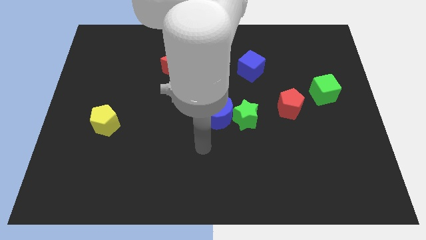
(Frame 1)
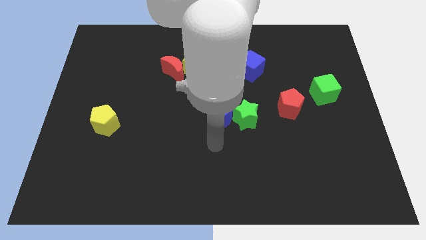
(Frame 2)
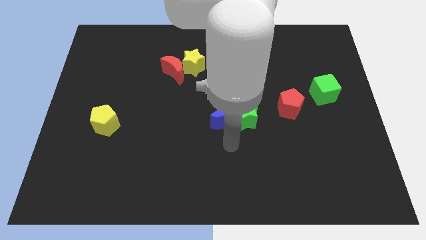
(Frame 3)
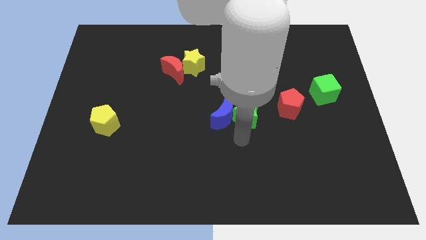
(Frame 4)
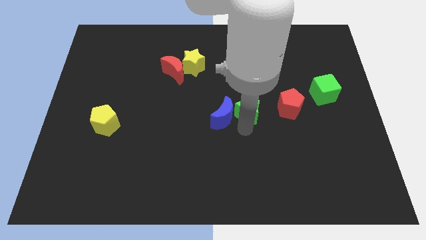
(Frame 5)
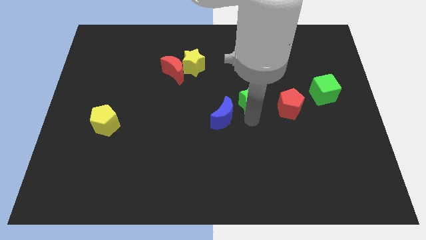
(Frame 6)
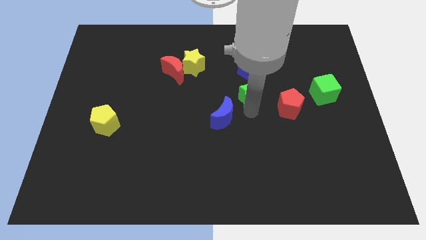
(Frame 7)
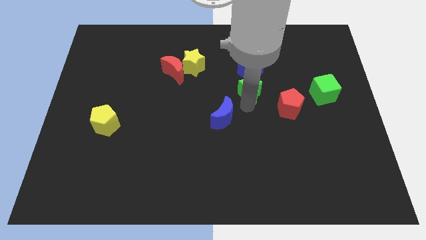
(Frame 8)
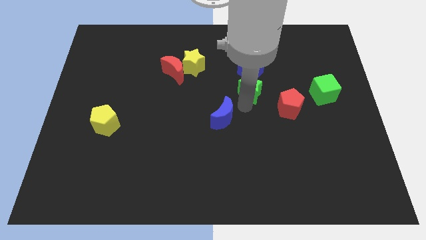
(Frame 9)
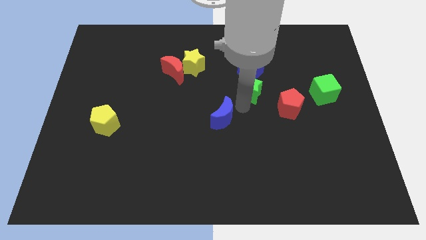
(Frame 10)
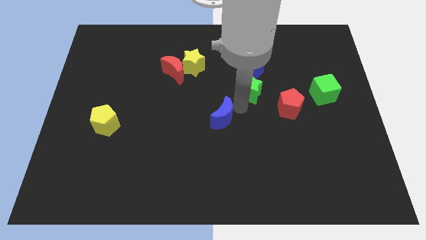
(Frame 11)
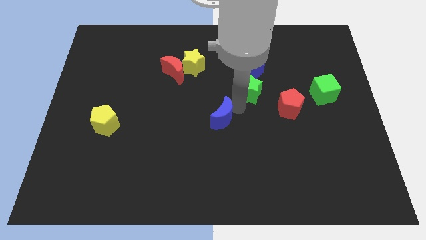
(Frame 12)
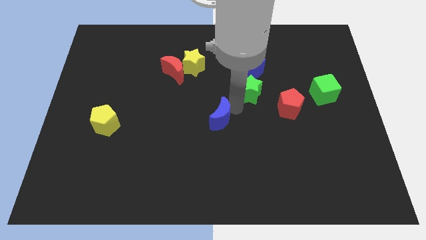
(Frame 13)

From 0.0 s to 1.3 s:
separate the blue moon from the green star

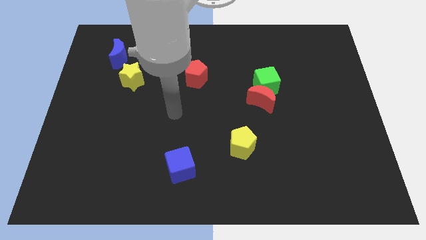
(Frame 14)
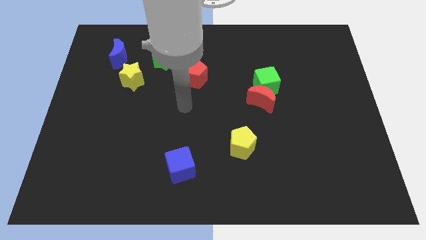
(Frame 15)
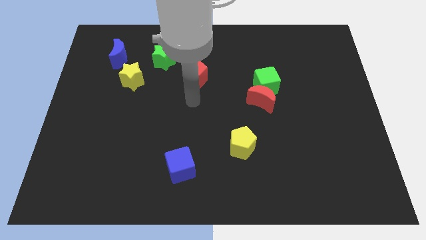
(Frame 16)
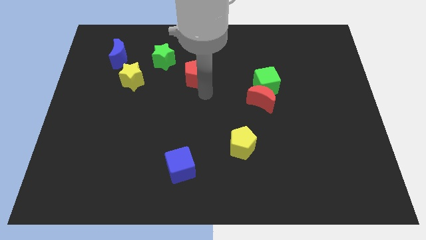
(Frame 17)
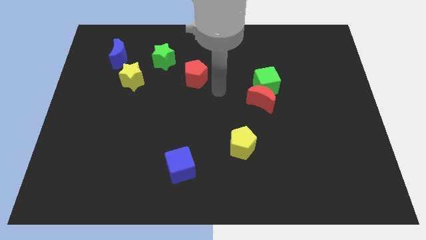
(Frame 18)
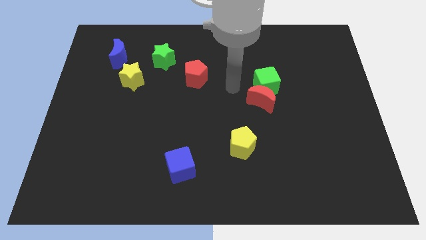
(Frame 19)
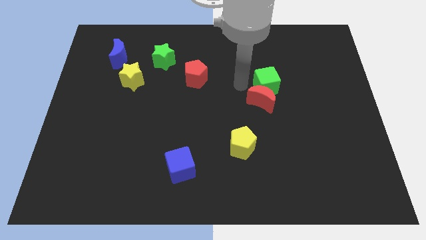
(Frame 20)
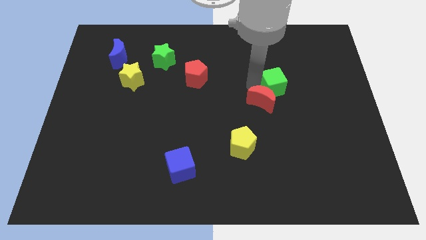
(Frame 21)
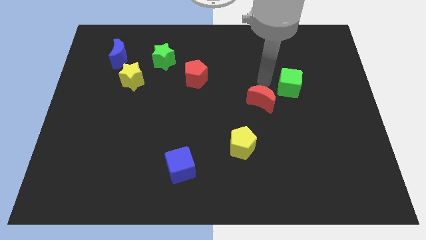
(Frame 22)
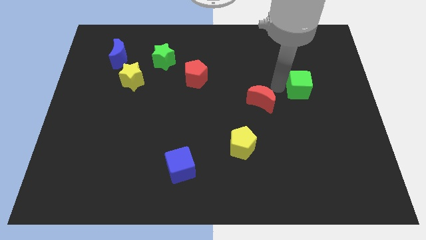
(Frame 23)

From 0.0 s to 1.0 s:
pull the red moon apart from the green cube

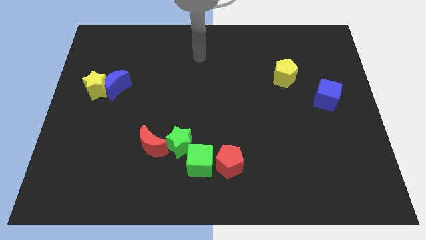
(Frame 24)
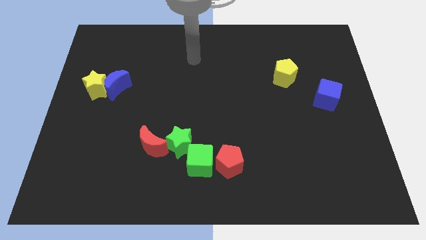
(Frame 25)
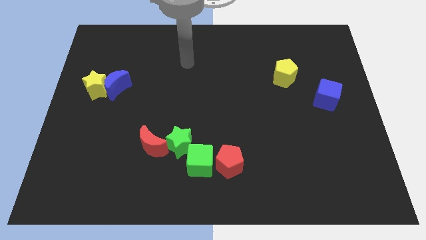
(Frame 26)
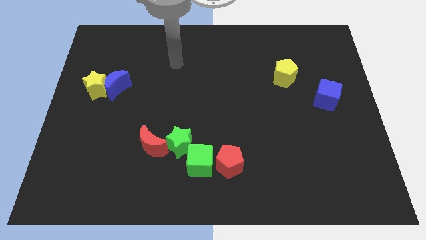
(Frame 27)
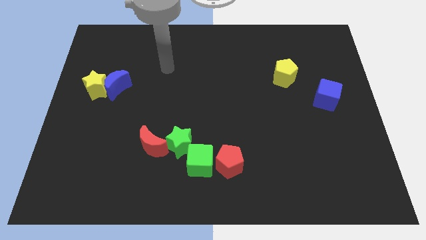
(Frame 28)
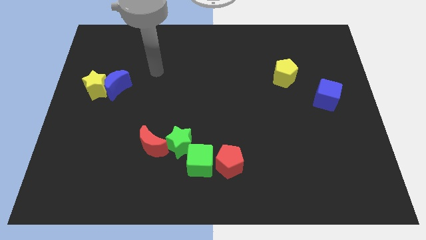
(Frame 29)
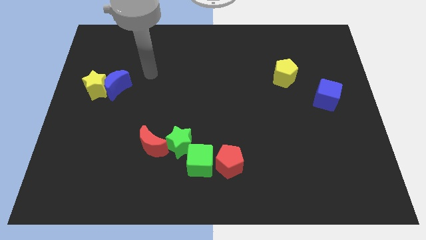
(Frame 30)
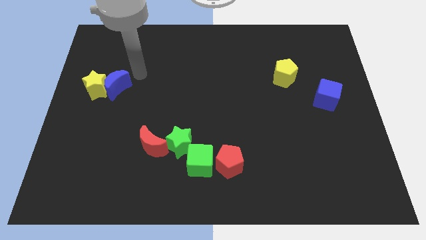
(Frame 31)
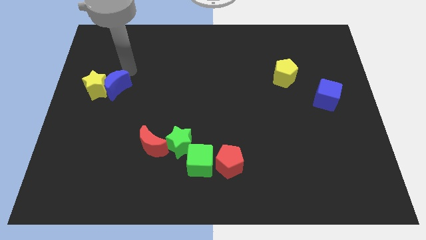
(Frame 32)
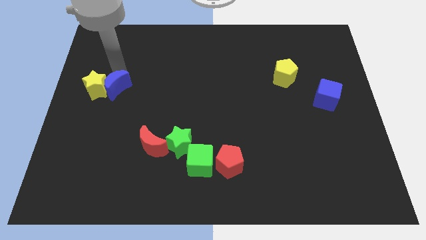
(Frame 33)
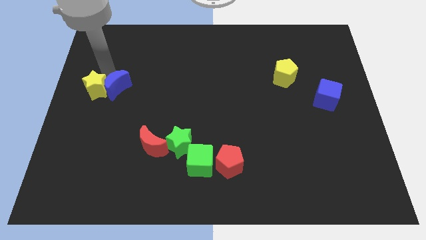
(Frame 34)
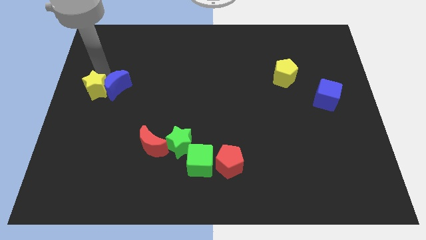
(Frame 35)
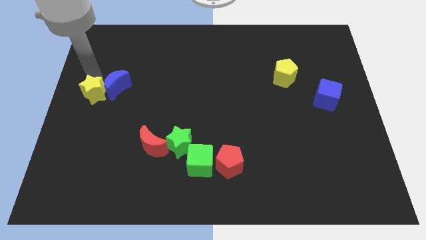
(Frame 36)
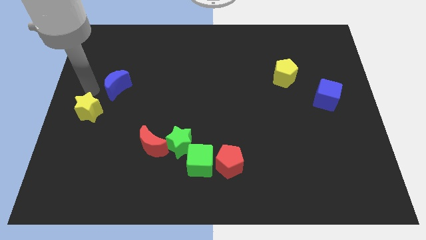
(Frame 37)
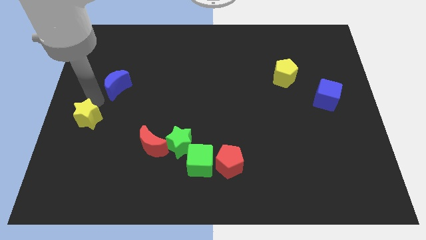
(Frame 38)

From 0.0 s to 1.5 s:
move the blue moon away from the yellow star

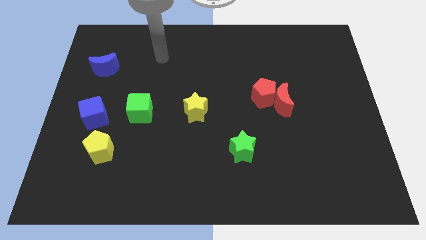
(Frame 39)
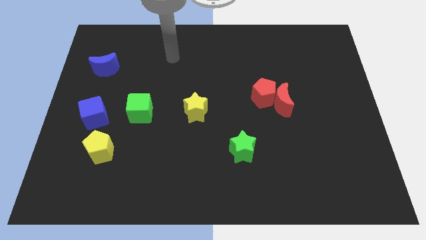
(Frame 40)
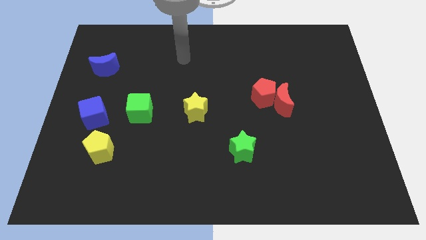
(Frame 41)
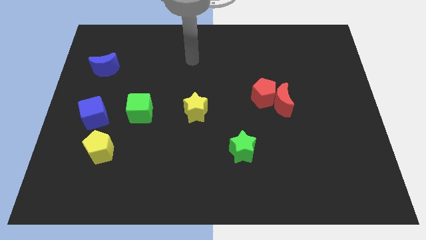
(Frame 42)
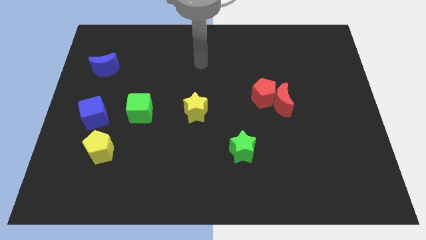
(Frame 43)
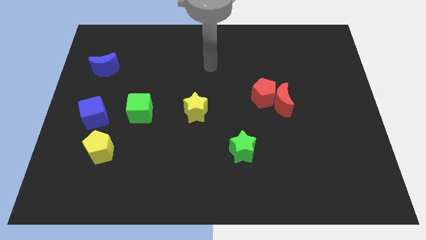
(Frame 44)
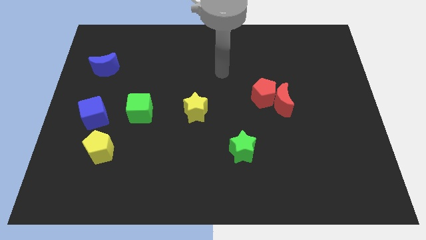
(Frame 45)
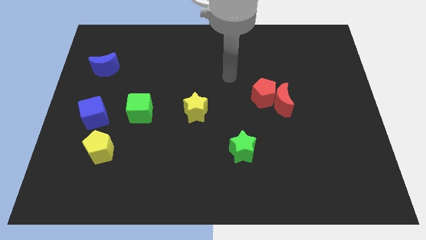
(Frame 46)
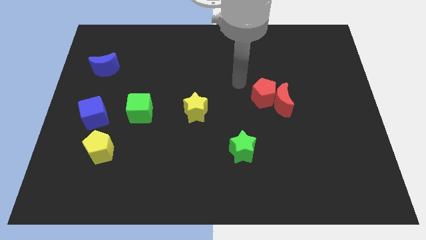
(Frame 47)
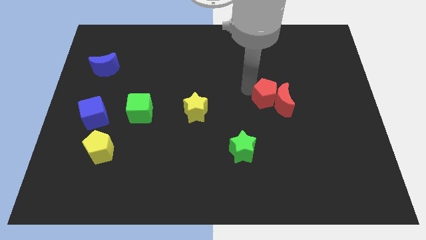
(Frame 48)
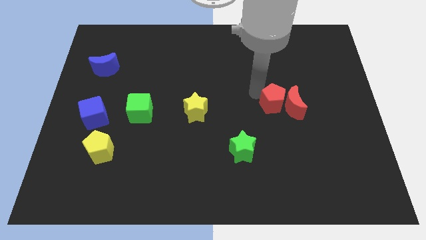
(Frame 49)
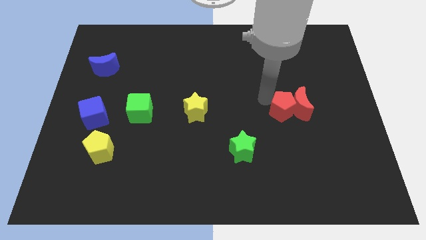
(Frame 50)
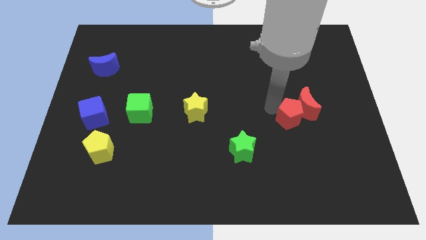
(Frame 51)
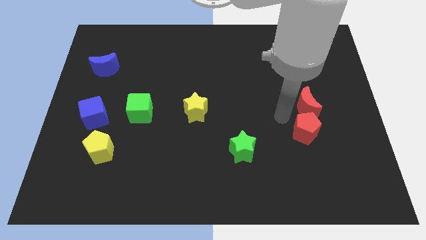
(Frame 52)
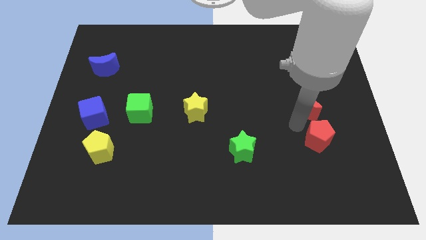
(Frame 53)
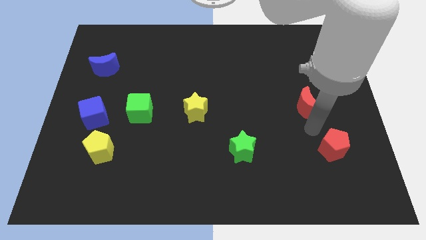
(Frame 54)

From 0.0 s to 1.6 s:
move the red moon away from the red pentagon

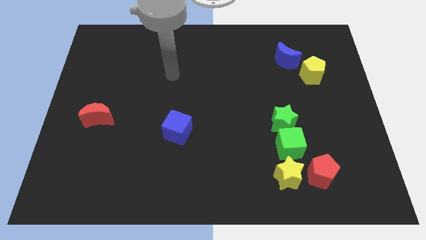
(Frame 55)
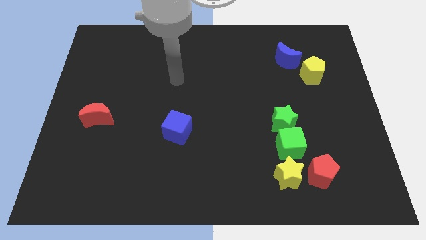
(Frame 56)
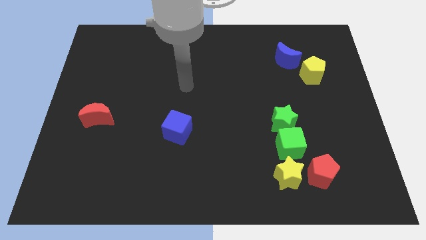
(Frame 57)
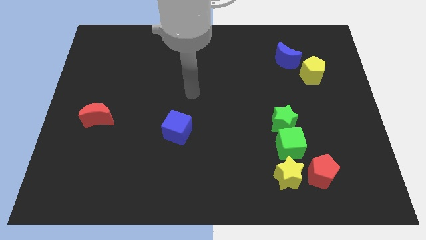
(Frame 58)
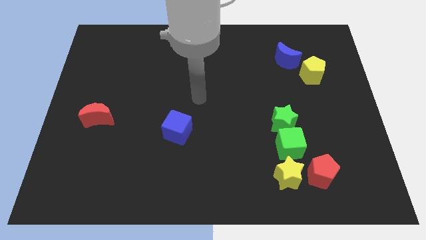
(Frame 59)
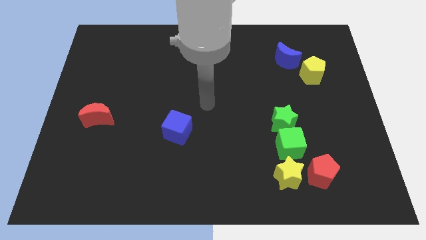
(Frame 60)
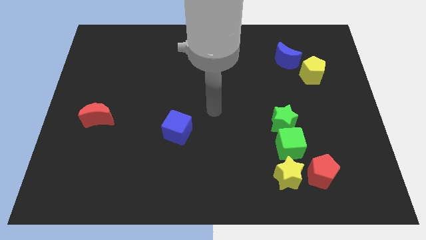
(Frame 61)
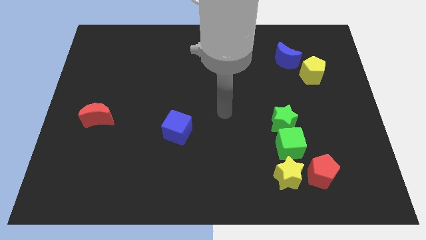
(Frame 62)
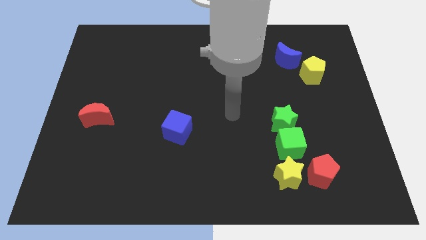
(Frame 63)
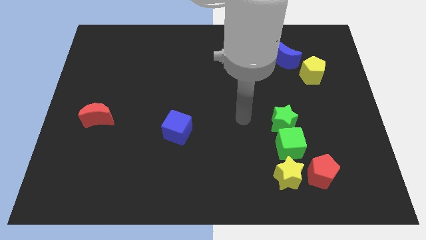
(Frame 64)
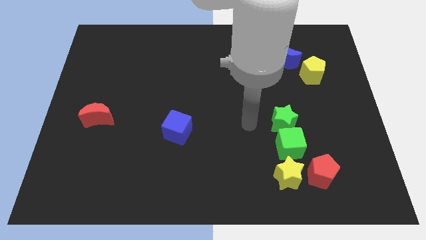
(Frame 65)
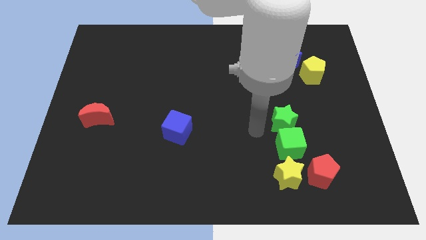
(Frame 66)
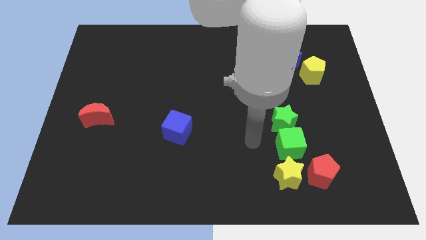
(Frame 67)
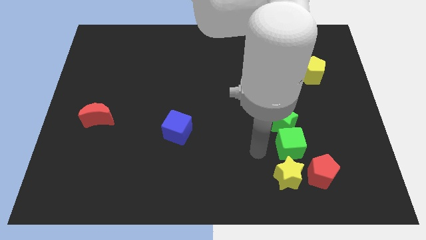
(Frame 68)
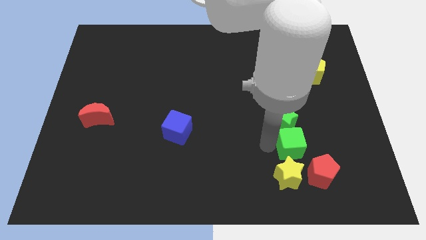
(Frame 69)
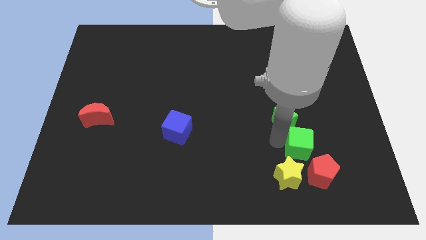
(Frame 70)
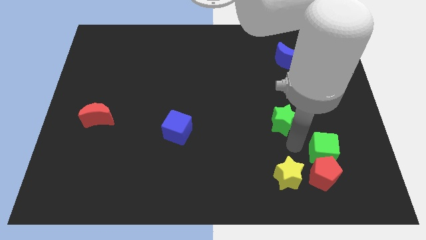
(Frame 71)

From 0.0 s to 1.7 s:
move the green star away from the green cube

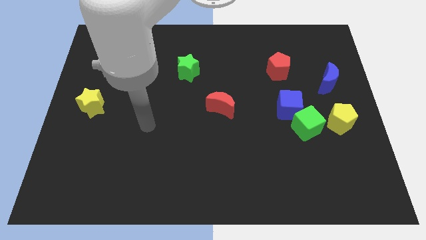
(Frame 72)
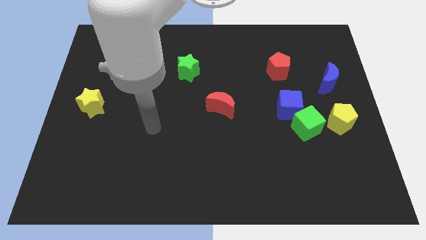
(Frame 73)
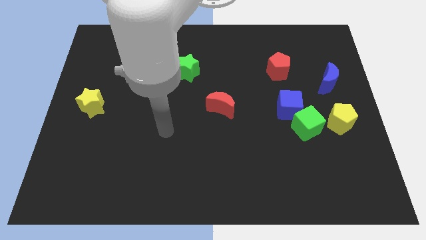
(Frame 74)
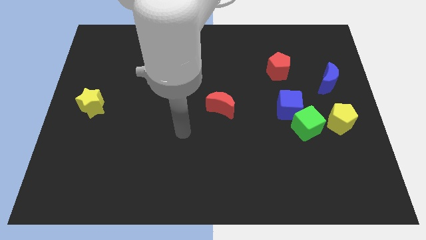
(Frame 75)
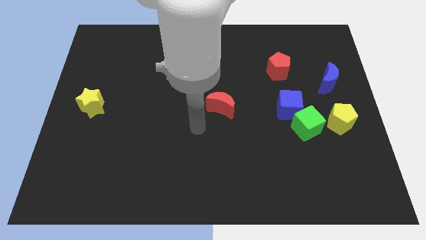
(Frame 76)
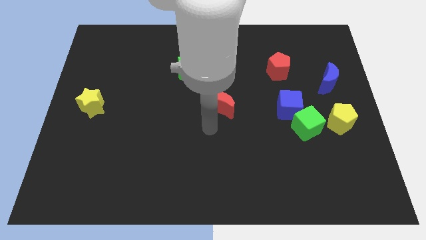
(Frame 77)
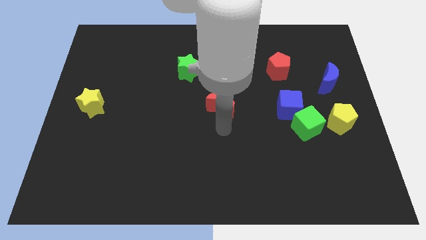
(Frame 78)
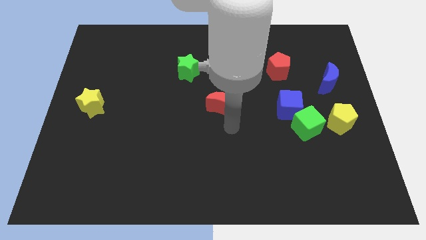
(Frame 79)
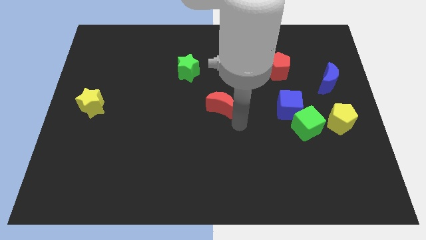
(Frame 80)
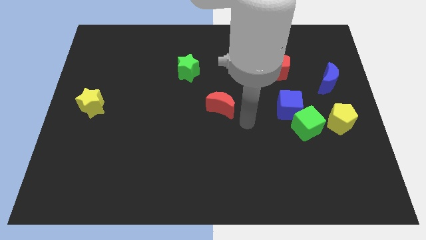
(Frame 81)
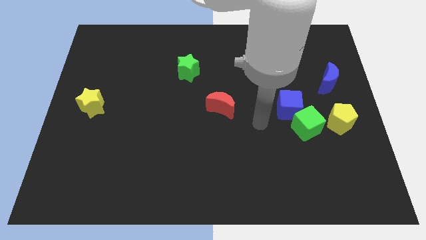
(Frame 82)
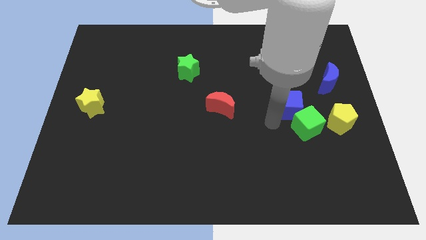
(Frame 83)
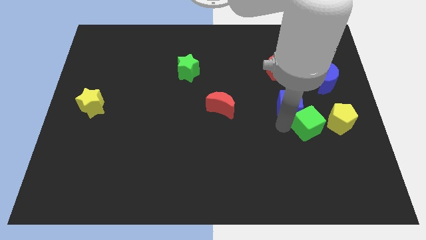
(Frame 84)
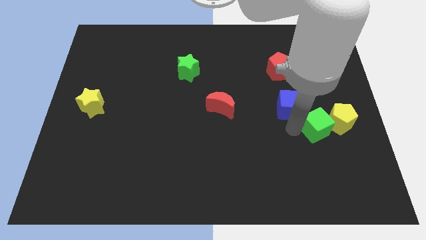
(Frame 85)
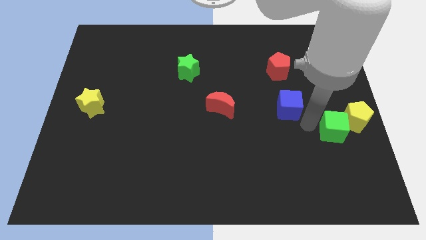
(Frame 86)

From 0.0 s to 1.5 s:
separate the blue cube from the green cube

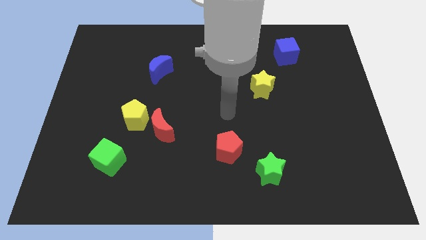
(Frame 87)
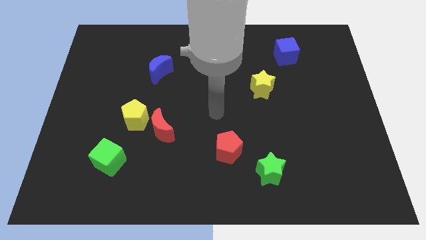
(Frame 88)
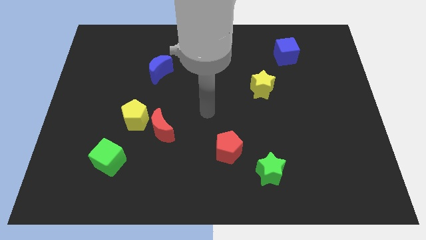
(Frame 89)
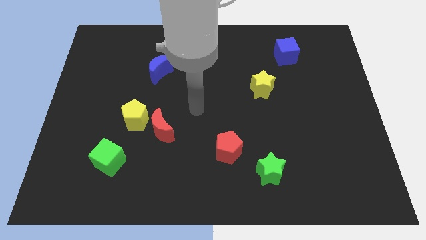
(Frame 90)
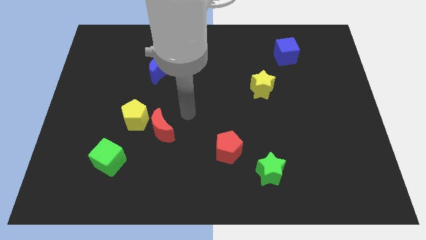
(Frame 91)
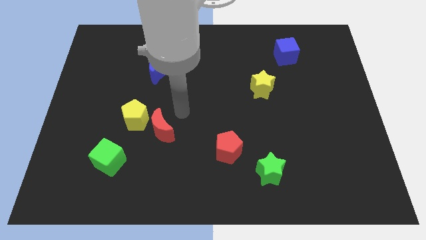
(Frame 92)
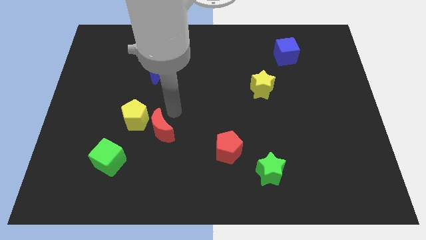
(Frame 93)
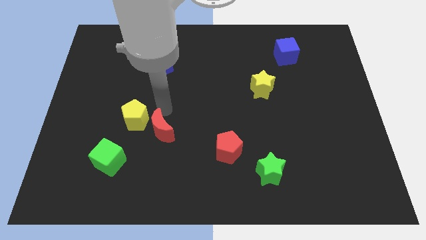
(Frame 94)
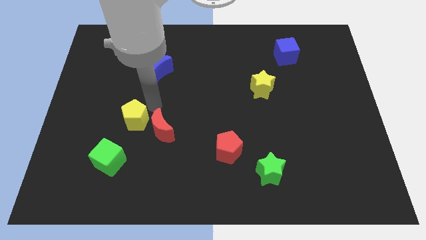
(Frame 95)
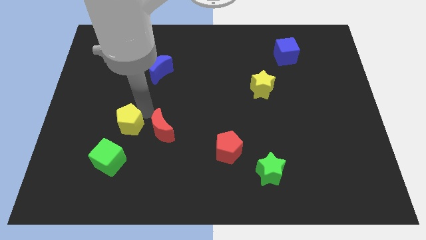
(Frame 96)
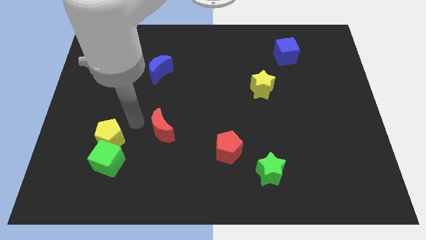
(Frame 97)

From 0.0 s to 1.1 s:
separate the red moon from the yellow pentagon
